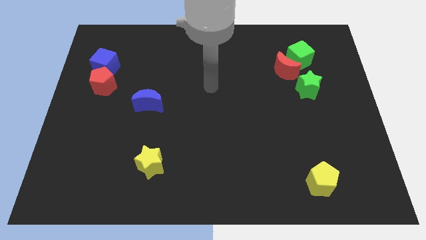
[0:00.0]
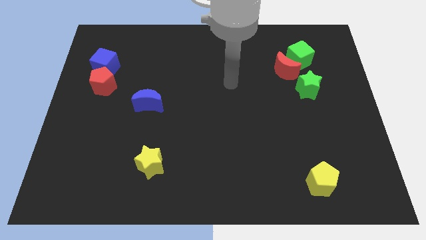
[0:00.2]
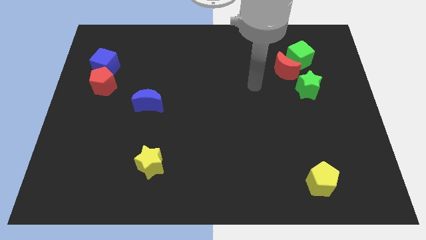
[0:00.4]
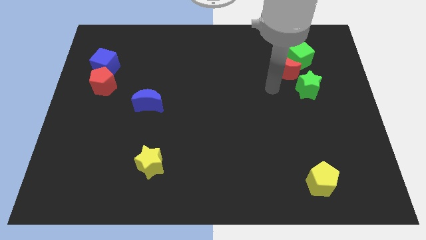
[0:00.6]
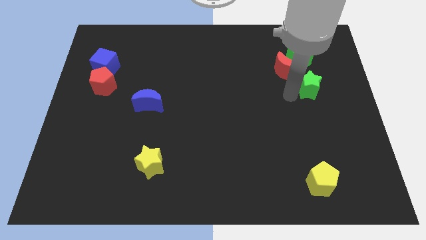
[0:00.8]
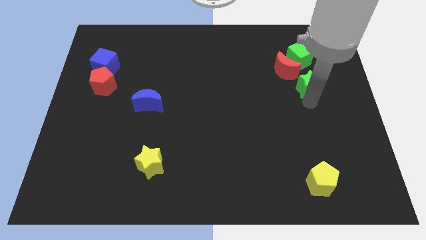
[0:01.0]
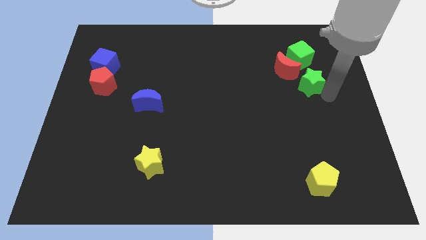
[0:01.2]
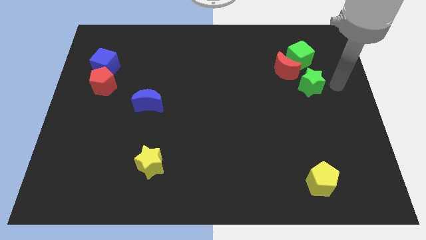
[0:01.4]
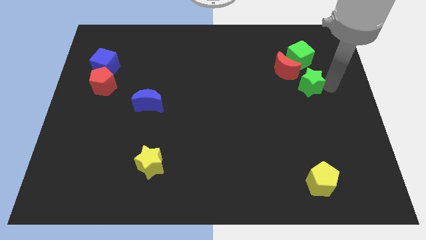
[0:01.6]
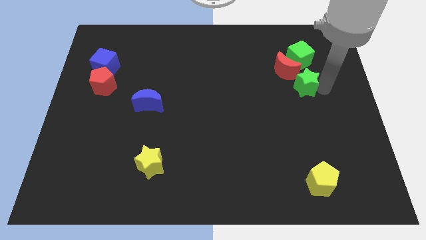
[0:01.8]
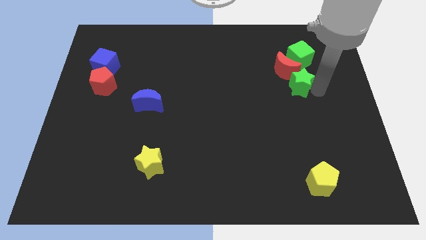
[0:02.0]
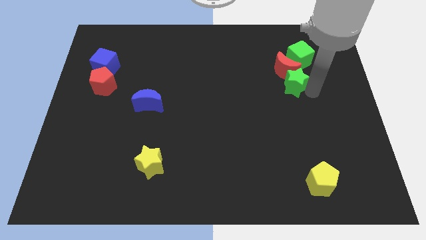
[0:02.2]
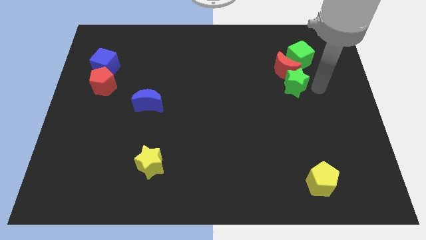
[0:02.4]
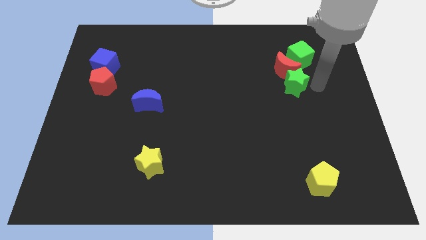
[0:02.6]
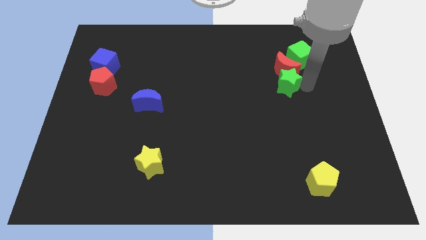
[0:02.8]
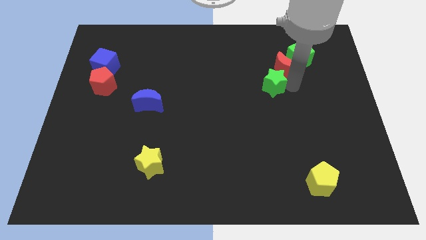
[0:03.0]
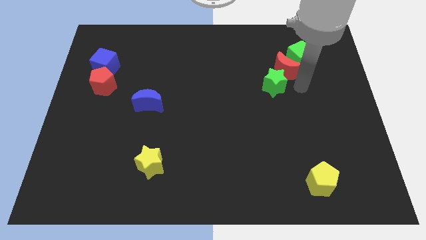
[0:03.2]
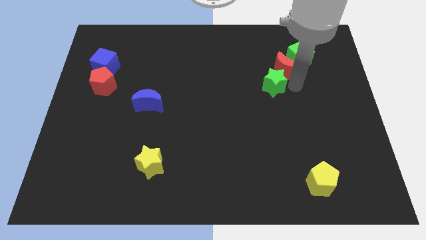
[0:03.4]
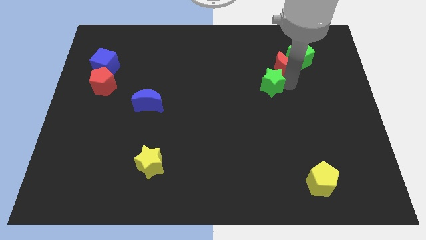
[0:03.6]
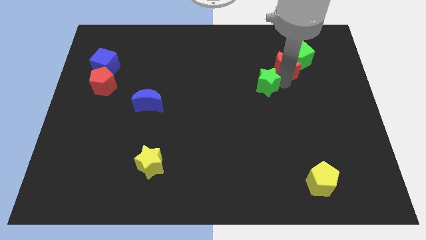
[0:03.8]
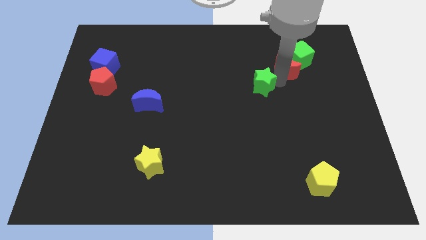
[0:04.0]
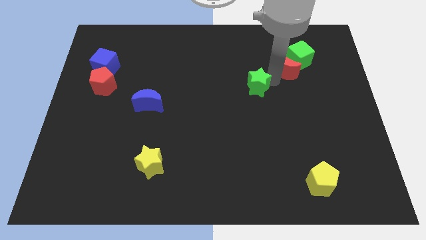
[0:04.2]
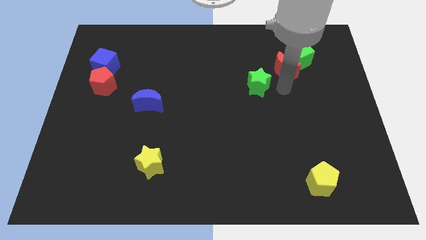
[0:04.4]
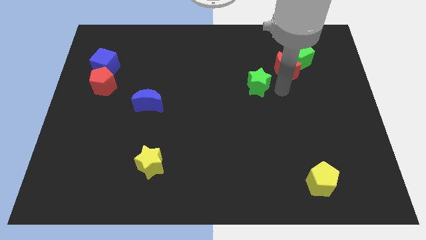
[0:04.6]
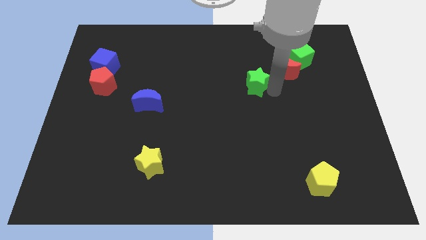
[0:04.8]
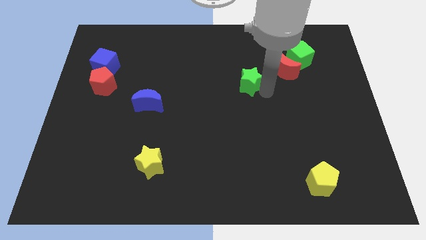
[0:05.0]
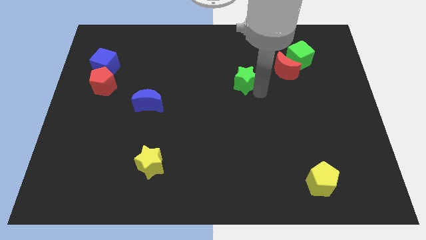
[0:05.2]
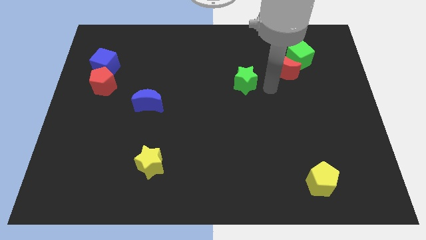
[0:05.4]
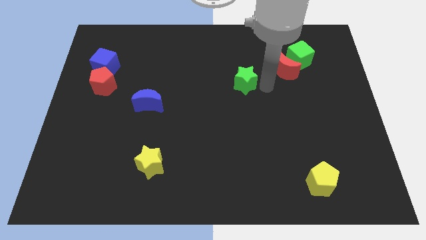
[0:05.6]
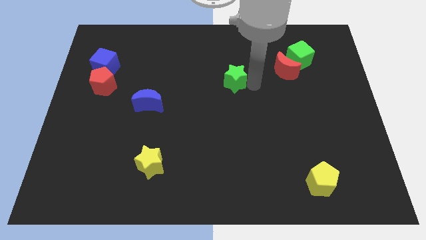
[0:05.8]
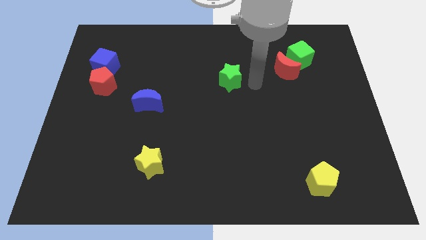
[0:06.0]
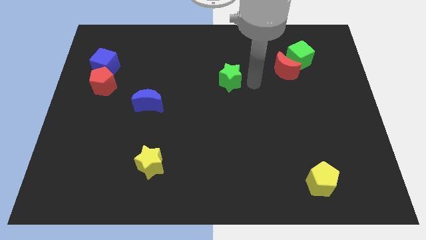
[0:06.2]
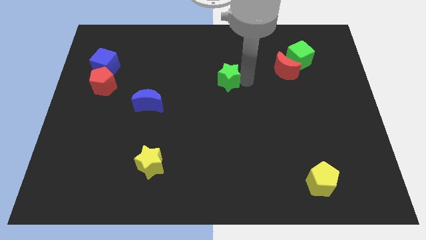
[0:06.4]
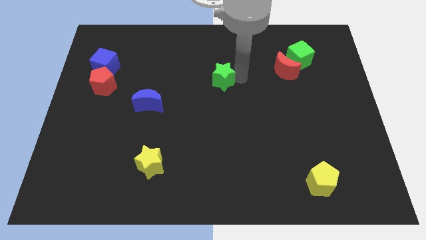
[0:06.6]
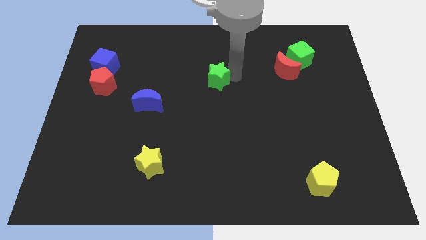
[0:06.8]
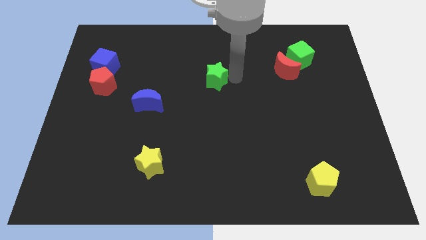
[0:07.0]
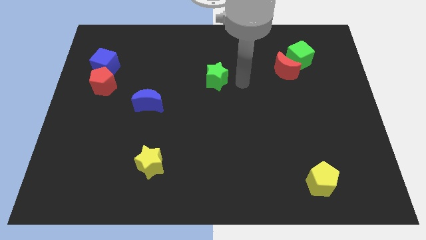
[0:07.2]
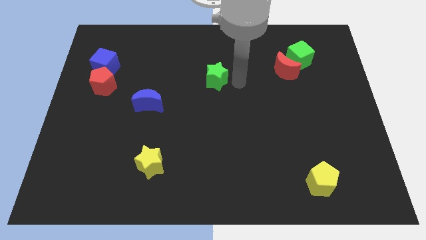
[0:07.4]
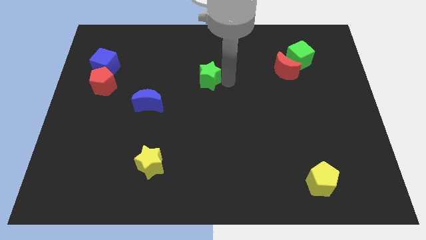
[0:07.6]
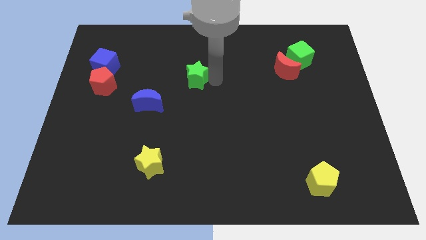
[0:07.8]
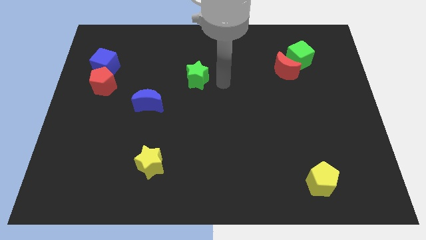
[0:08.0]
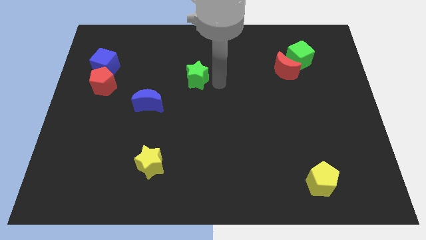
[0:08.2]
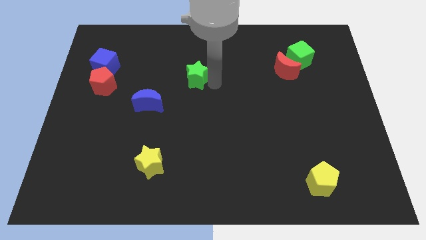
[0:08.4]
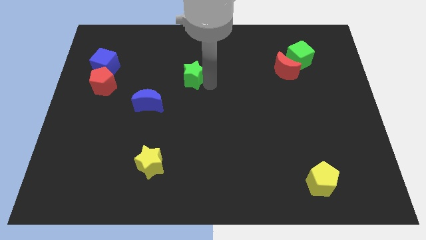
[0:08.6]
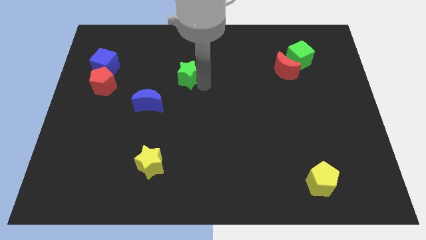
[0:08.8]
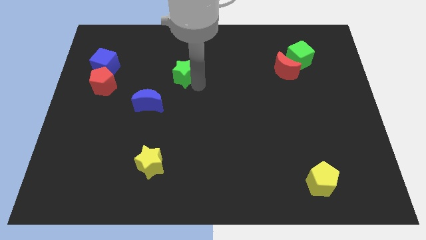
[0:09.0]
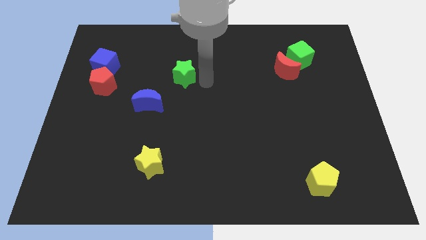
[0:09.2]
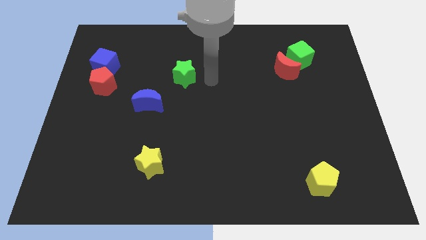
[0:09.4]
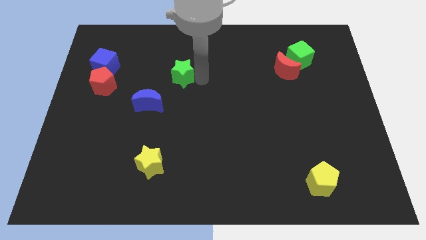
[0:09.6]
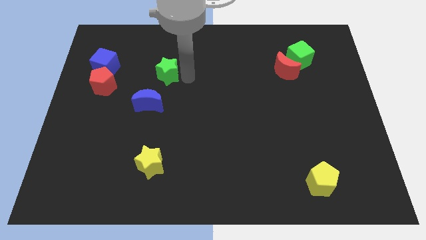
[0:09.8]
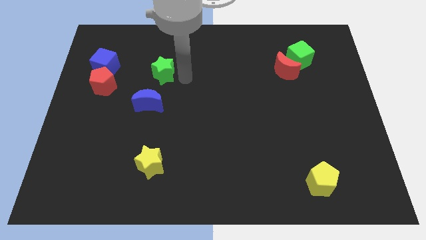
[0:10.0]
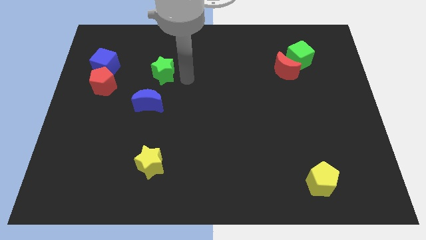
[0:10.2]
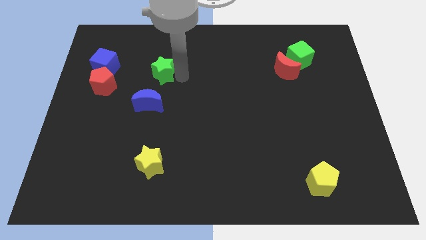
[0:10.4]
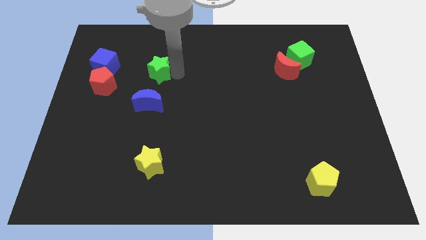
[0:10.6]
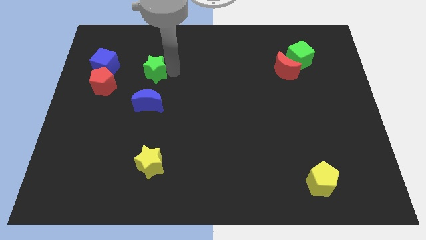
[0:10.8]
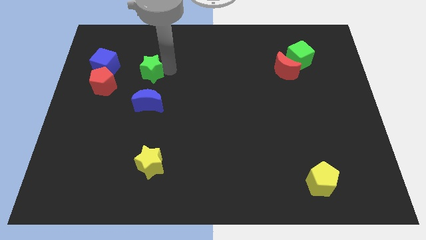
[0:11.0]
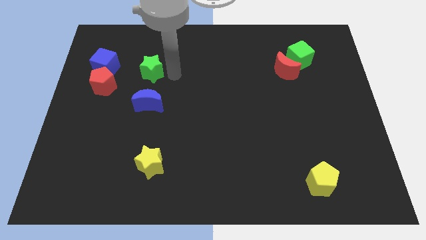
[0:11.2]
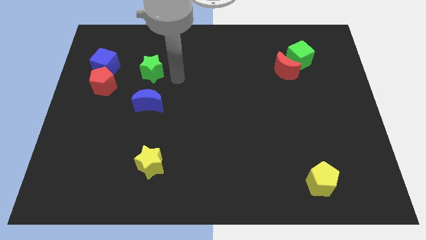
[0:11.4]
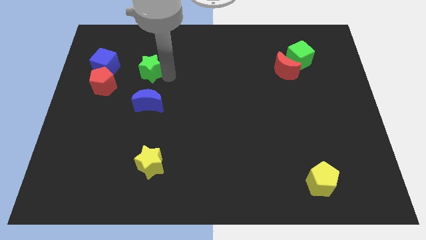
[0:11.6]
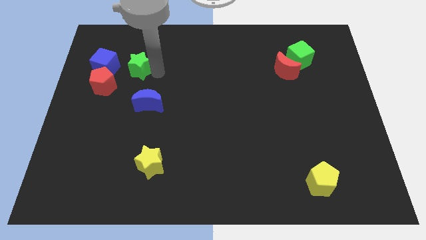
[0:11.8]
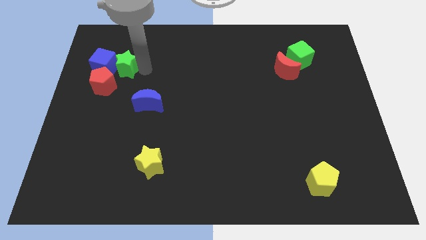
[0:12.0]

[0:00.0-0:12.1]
slide the green star to the blue cube

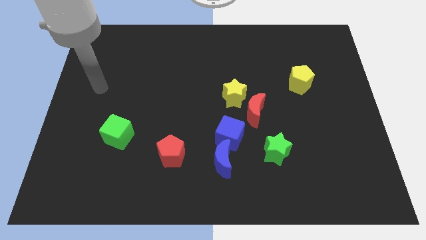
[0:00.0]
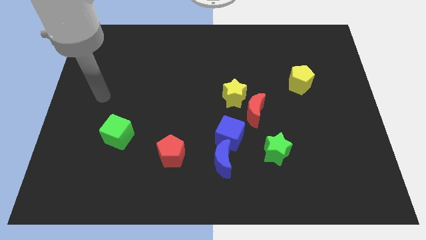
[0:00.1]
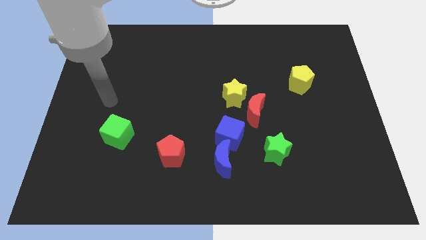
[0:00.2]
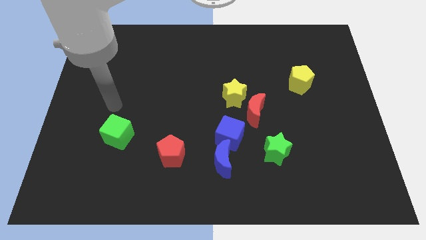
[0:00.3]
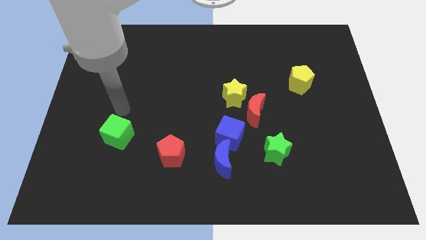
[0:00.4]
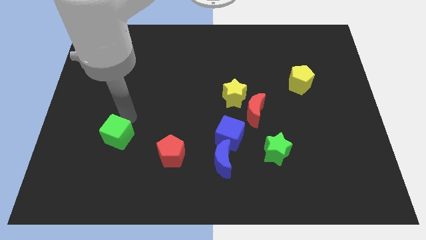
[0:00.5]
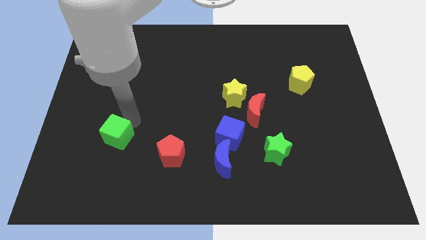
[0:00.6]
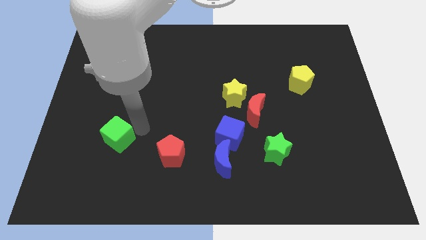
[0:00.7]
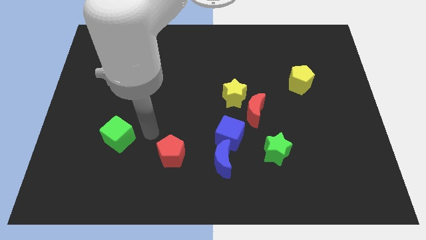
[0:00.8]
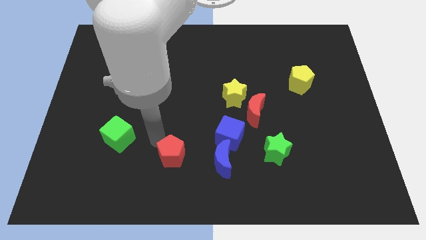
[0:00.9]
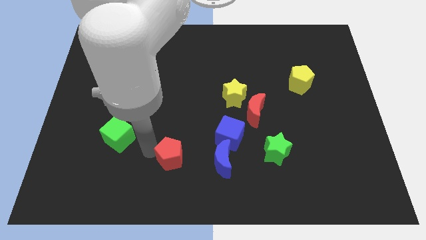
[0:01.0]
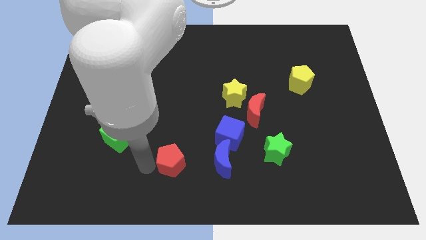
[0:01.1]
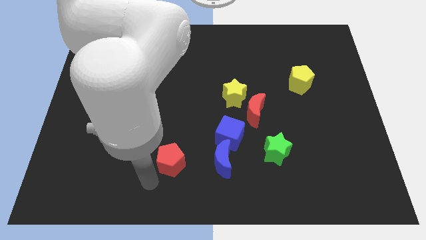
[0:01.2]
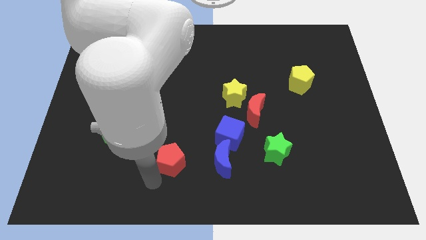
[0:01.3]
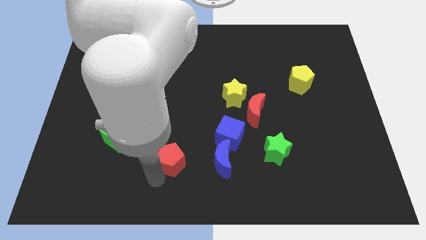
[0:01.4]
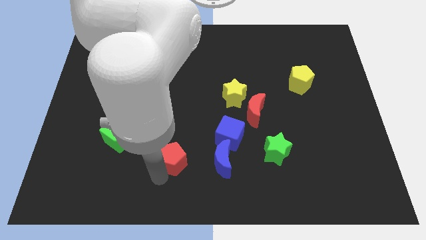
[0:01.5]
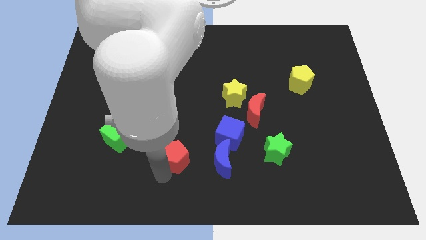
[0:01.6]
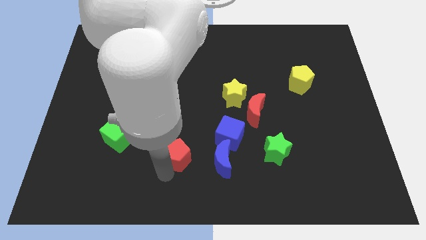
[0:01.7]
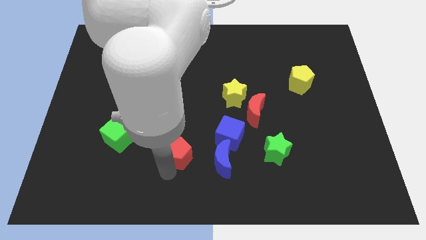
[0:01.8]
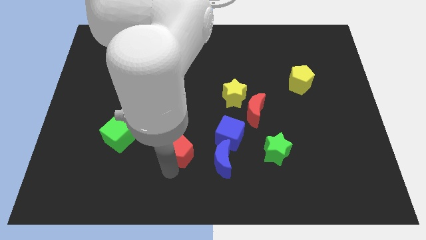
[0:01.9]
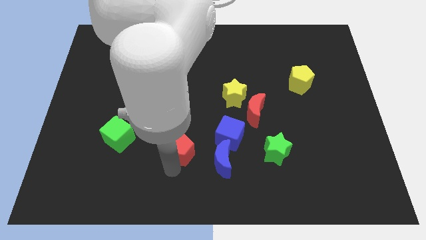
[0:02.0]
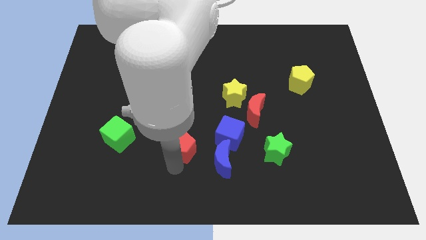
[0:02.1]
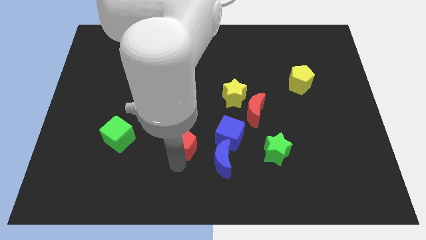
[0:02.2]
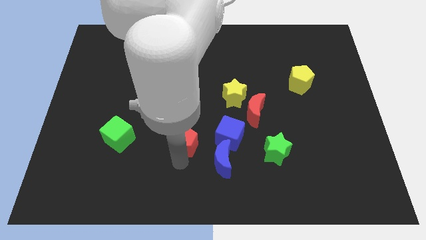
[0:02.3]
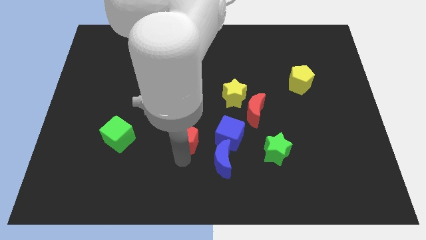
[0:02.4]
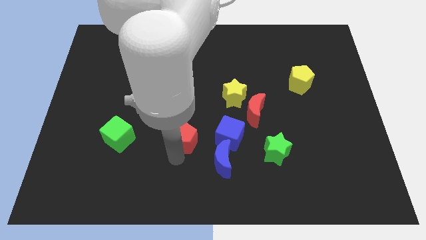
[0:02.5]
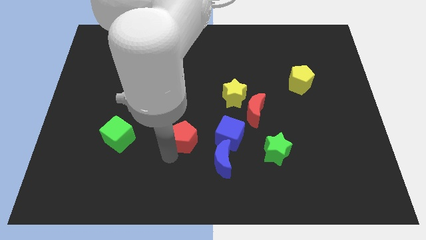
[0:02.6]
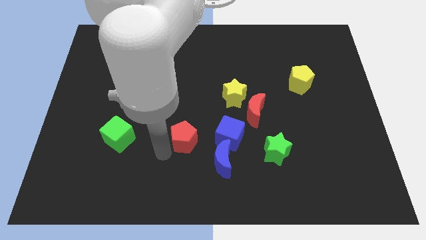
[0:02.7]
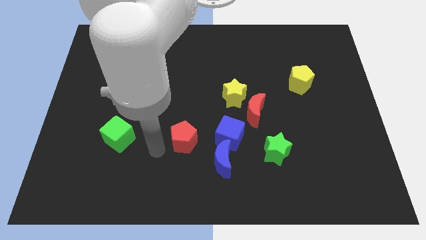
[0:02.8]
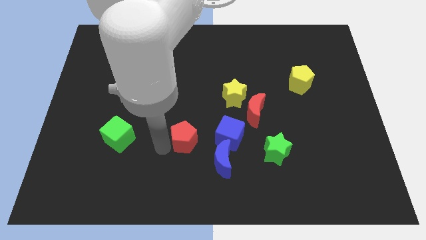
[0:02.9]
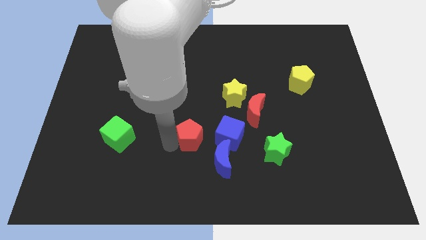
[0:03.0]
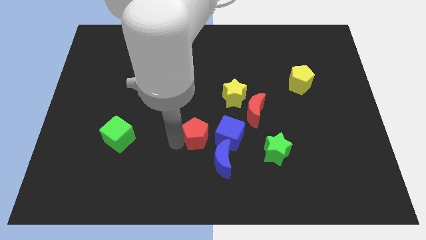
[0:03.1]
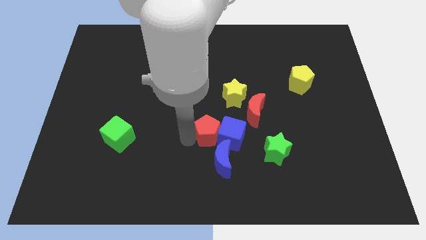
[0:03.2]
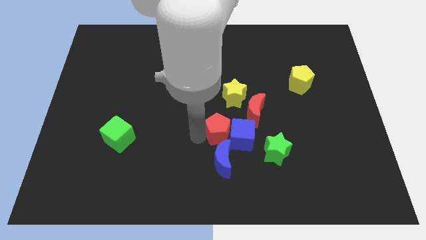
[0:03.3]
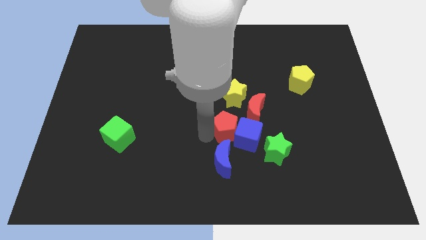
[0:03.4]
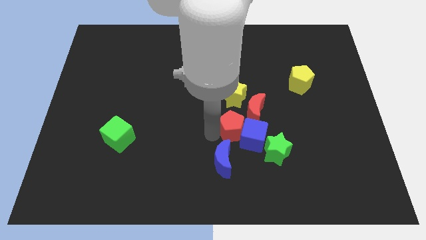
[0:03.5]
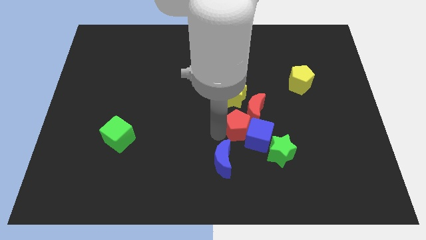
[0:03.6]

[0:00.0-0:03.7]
push the red pentagon close to the red moon
